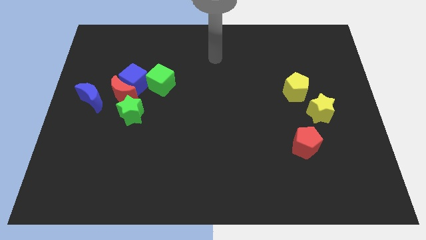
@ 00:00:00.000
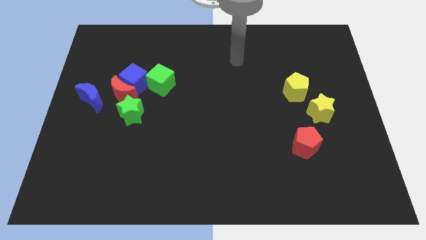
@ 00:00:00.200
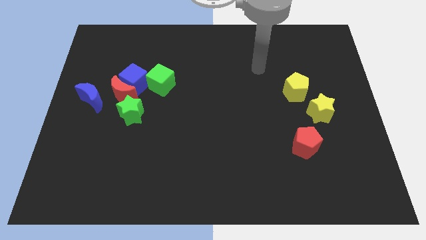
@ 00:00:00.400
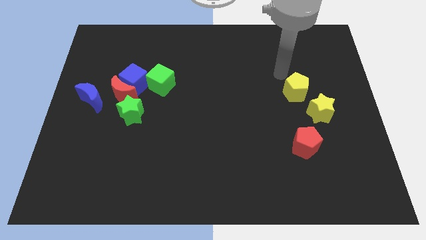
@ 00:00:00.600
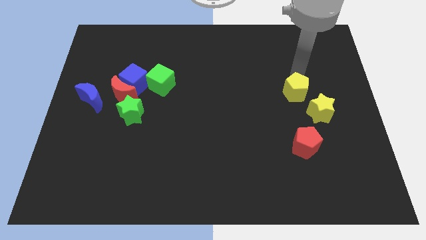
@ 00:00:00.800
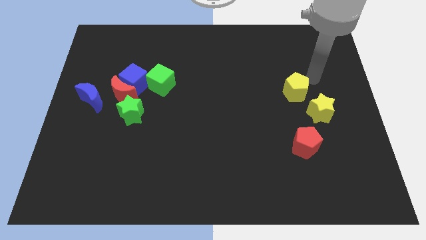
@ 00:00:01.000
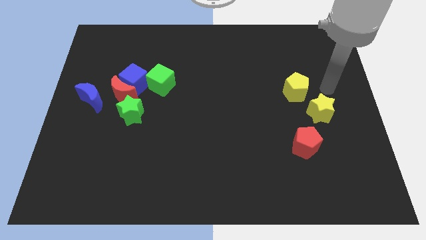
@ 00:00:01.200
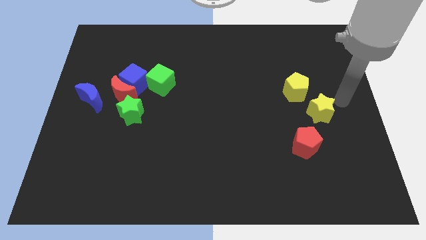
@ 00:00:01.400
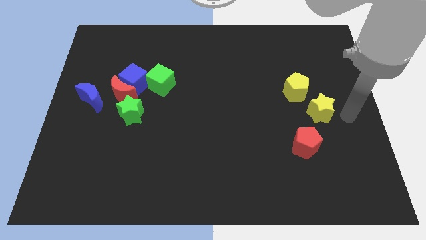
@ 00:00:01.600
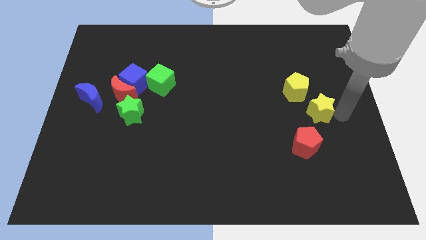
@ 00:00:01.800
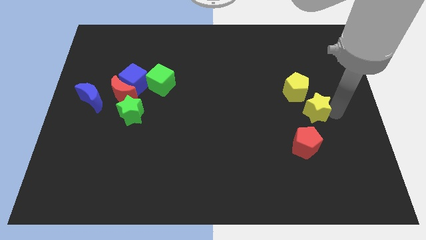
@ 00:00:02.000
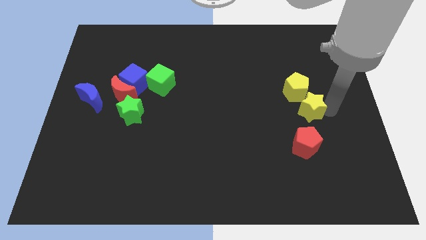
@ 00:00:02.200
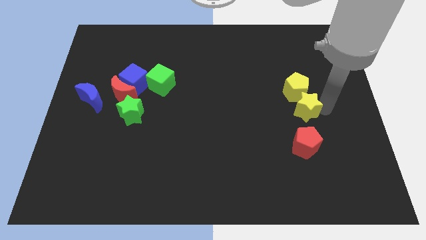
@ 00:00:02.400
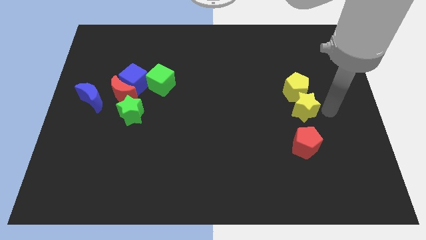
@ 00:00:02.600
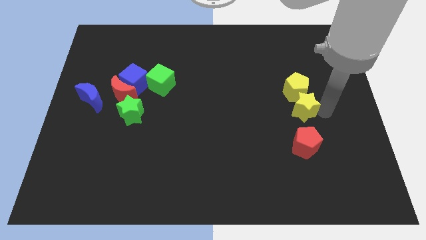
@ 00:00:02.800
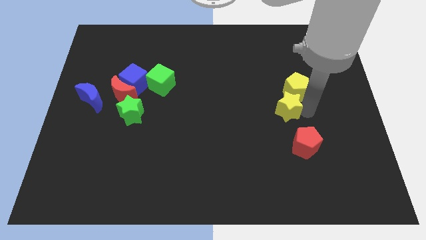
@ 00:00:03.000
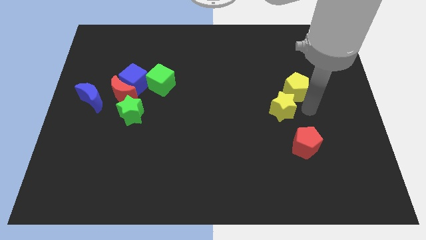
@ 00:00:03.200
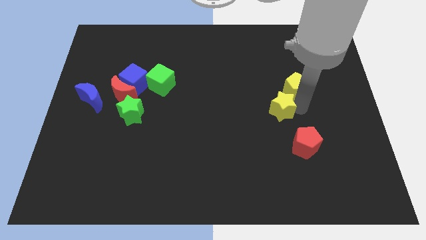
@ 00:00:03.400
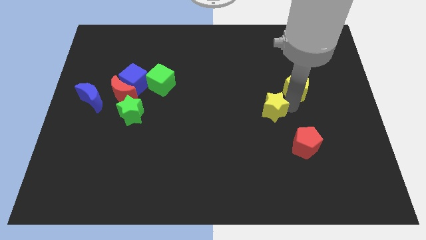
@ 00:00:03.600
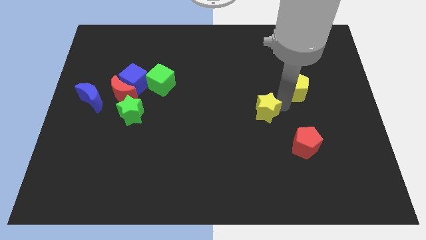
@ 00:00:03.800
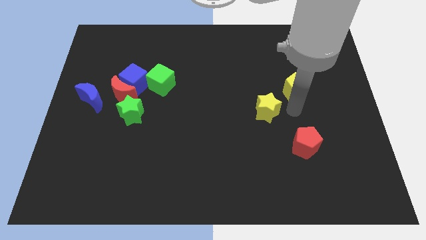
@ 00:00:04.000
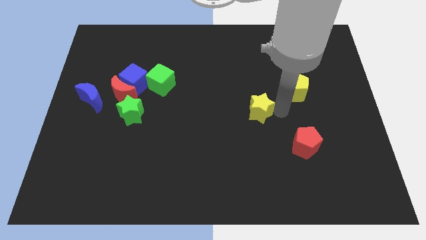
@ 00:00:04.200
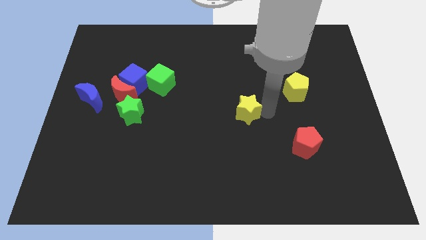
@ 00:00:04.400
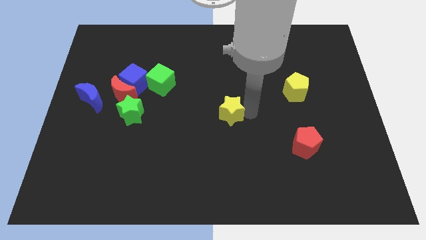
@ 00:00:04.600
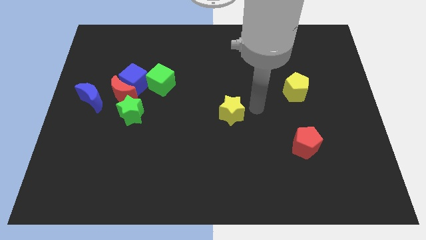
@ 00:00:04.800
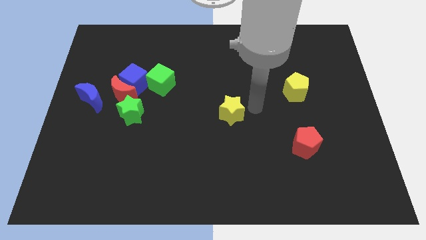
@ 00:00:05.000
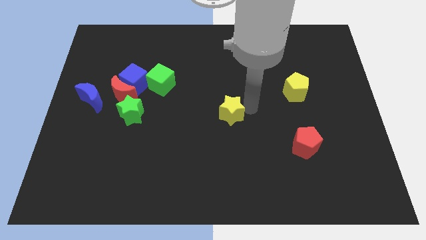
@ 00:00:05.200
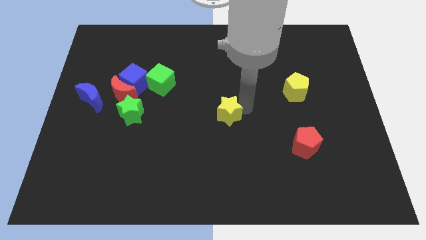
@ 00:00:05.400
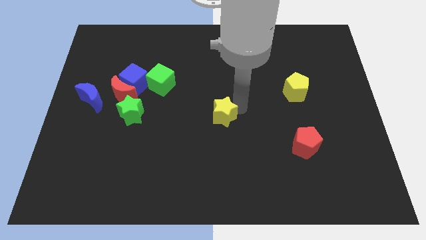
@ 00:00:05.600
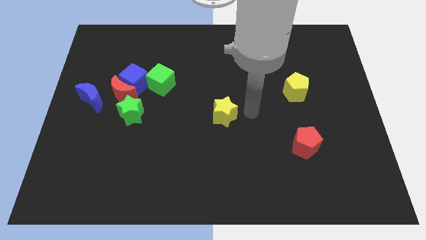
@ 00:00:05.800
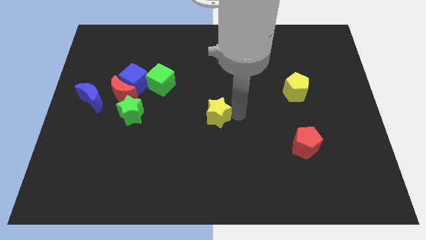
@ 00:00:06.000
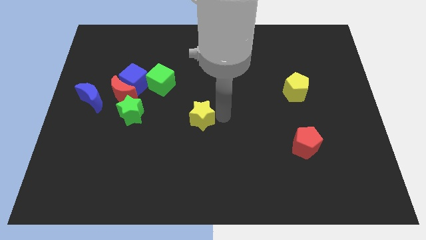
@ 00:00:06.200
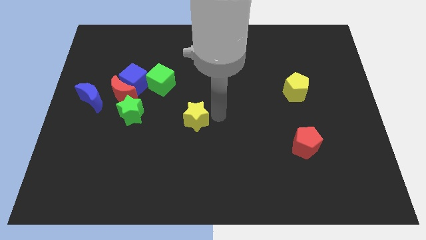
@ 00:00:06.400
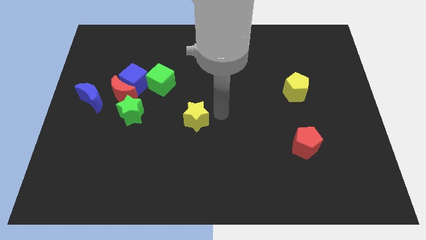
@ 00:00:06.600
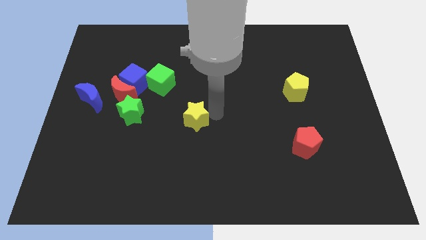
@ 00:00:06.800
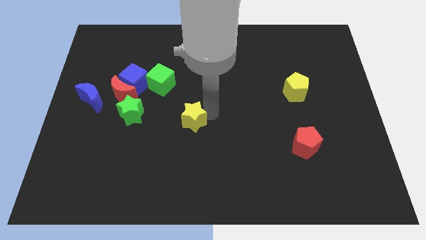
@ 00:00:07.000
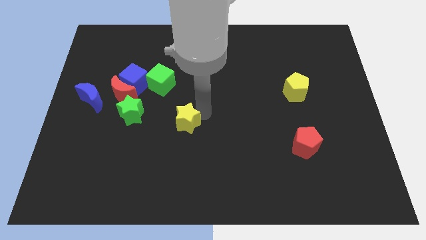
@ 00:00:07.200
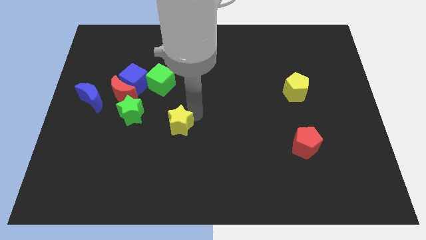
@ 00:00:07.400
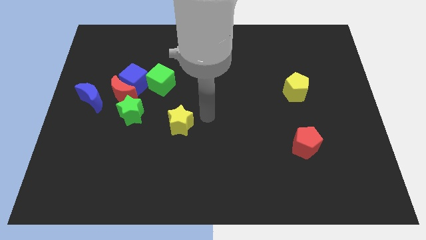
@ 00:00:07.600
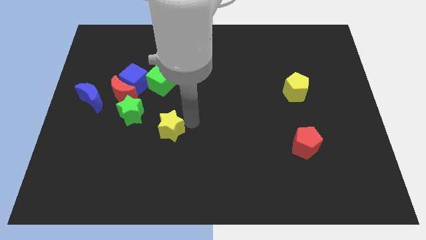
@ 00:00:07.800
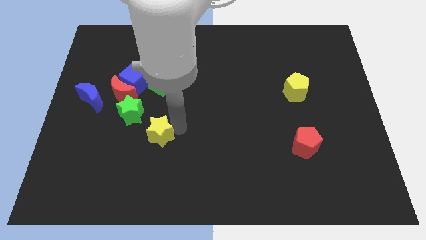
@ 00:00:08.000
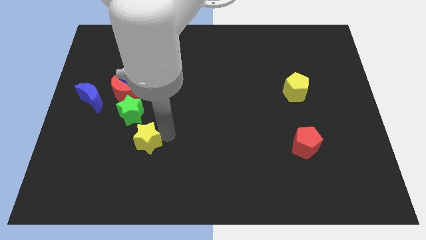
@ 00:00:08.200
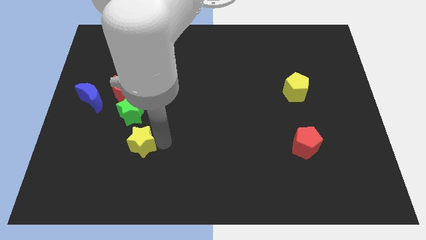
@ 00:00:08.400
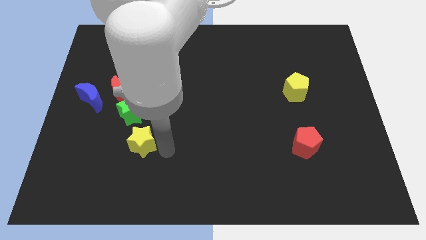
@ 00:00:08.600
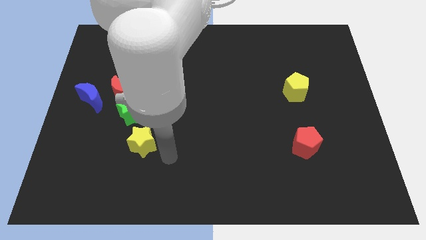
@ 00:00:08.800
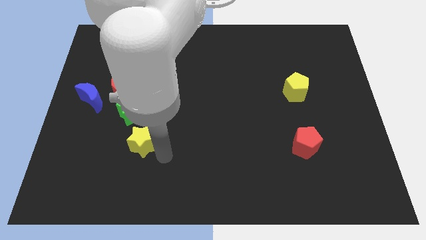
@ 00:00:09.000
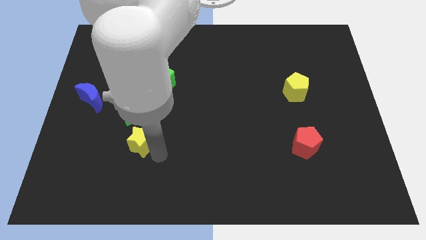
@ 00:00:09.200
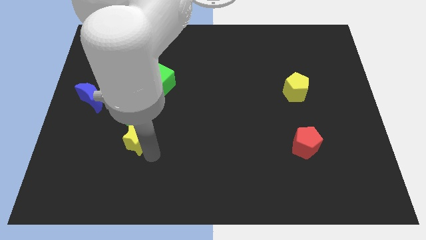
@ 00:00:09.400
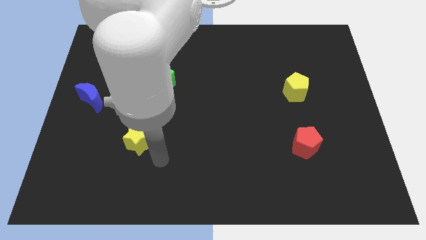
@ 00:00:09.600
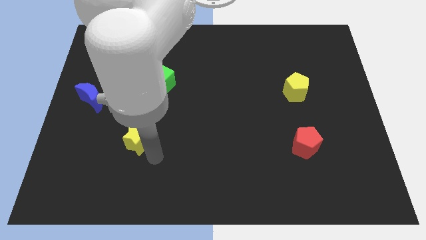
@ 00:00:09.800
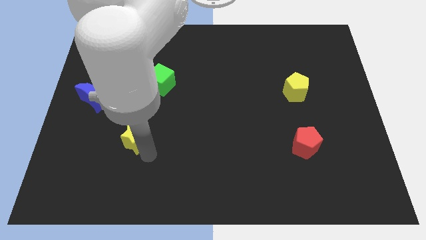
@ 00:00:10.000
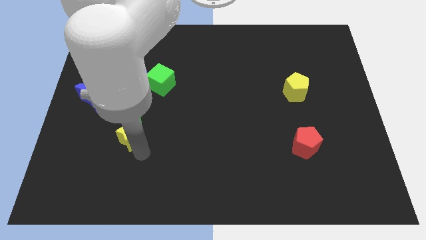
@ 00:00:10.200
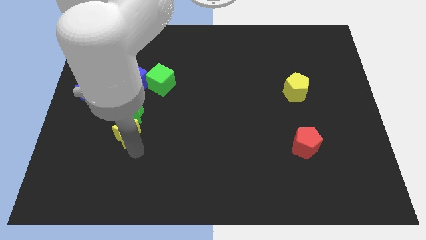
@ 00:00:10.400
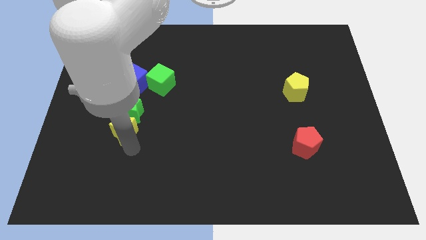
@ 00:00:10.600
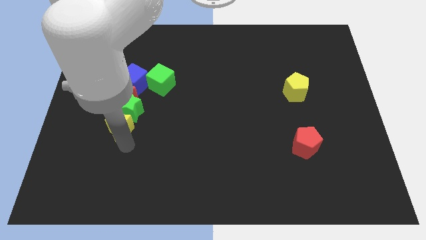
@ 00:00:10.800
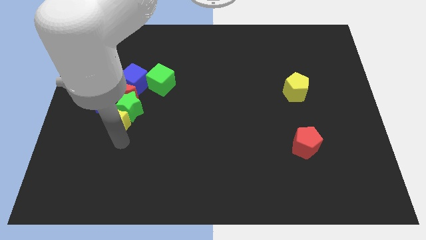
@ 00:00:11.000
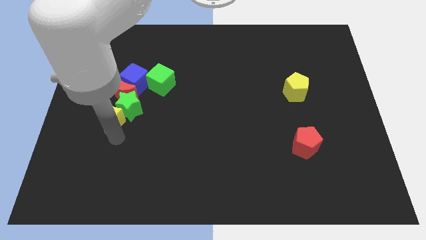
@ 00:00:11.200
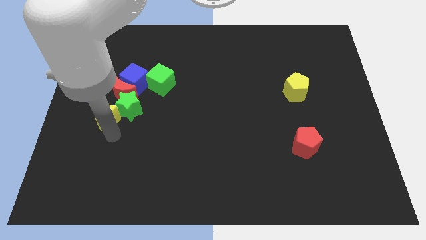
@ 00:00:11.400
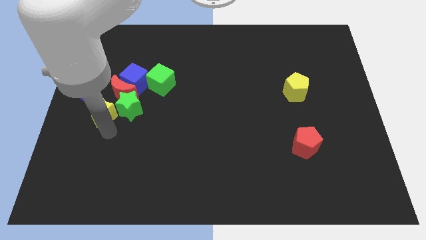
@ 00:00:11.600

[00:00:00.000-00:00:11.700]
move the yellow star close to the blue moon

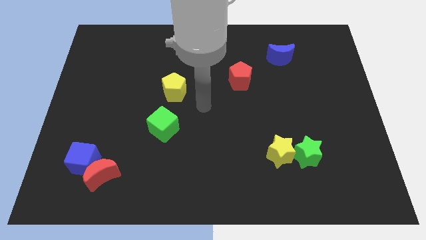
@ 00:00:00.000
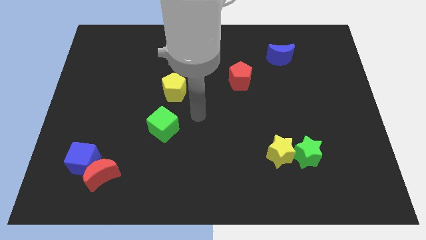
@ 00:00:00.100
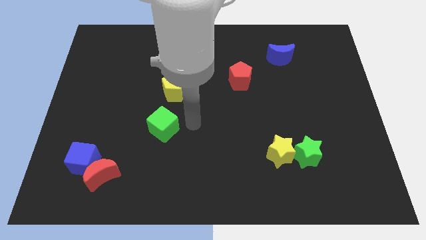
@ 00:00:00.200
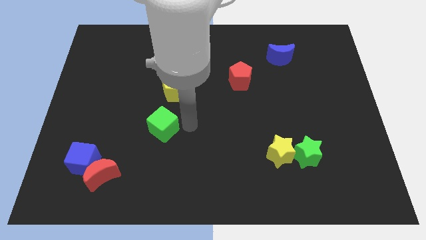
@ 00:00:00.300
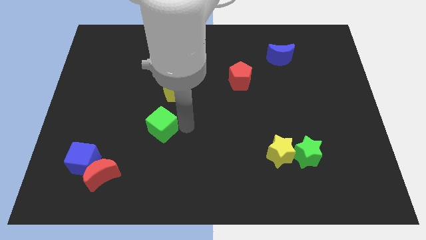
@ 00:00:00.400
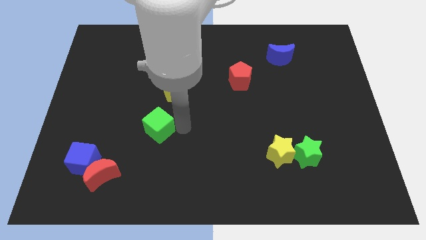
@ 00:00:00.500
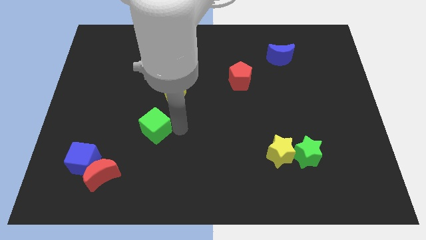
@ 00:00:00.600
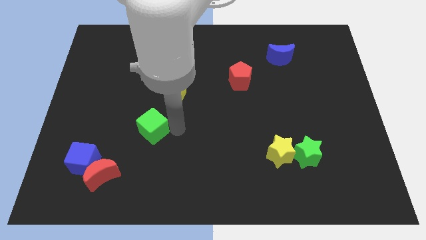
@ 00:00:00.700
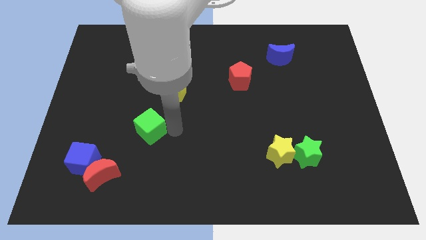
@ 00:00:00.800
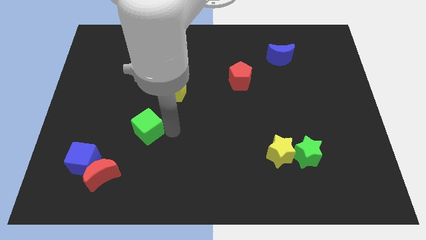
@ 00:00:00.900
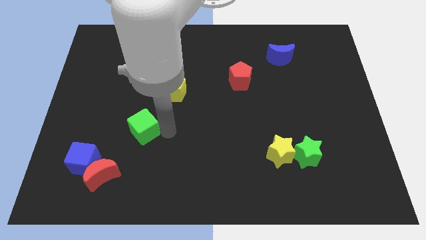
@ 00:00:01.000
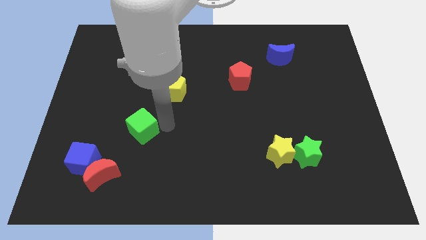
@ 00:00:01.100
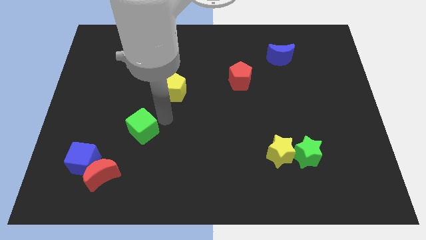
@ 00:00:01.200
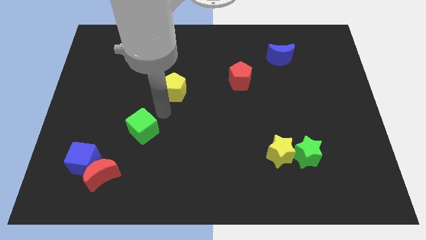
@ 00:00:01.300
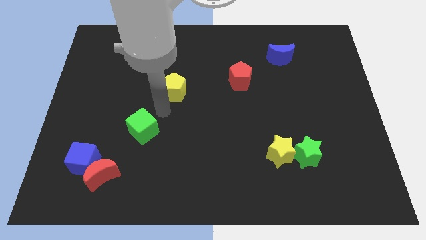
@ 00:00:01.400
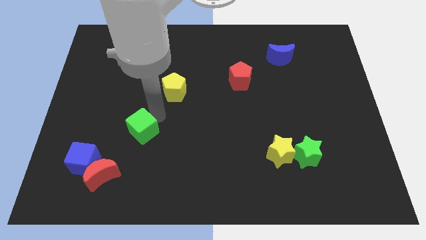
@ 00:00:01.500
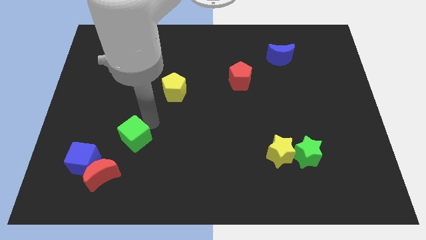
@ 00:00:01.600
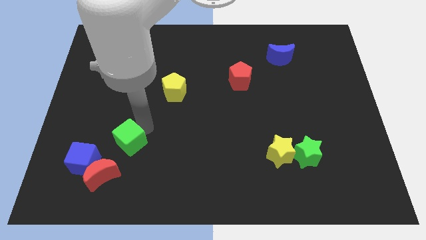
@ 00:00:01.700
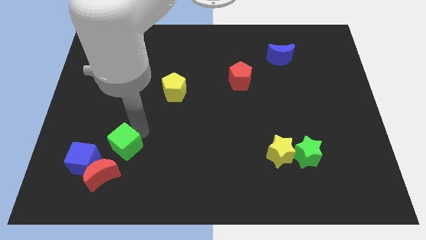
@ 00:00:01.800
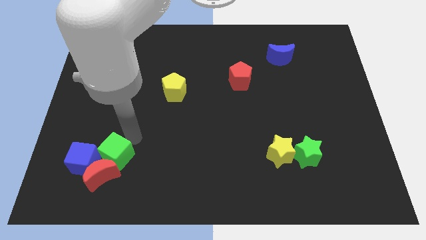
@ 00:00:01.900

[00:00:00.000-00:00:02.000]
push the green cube towards the red moon
